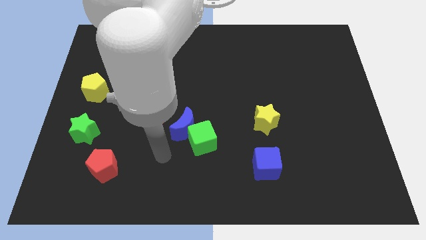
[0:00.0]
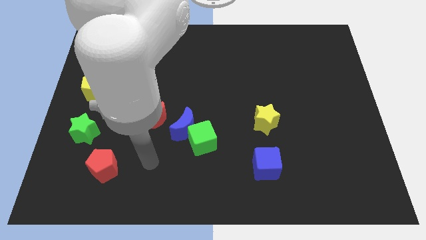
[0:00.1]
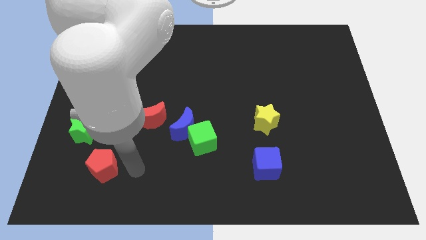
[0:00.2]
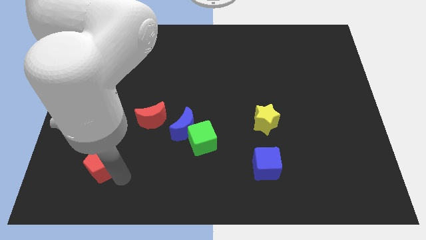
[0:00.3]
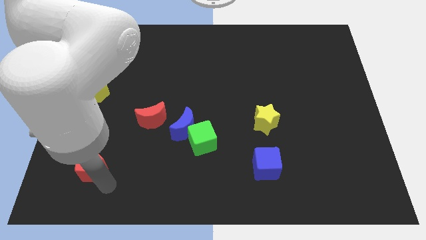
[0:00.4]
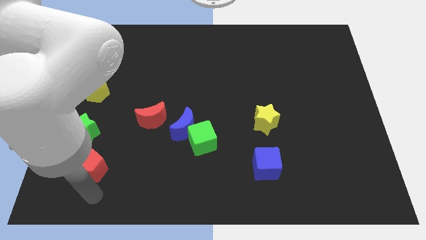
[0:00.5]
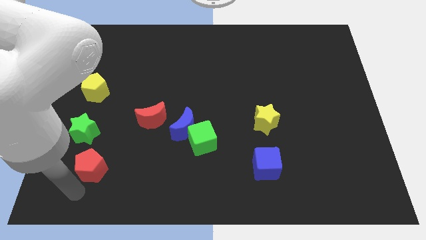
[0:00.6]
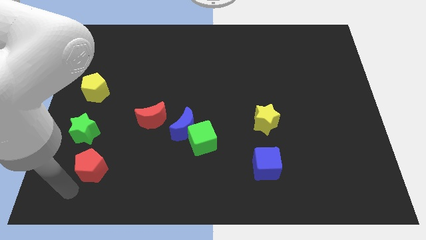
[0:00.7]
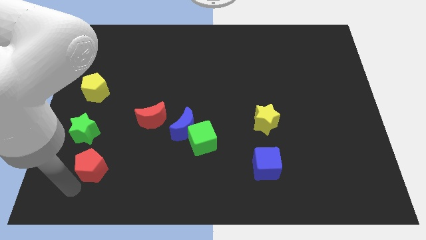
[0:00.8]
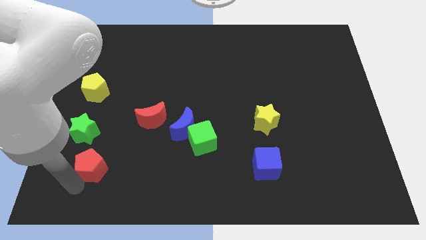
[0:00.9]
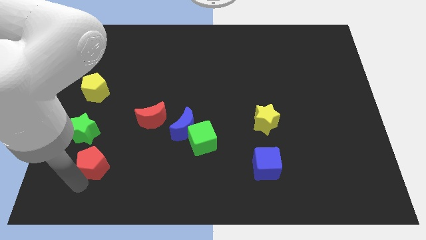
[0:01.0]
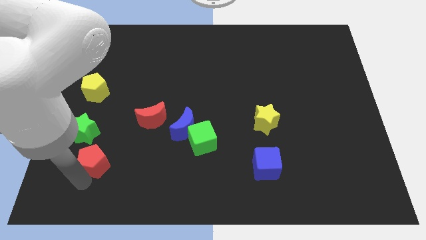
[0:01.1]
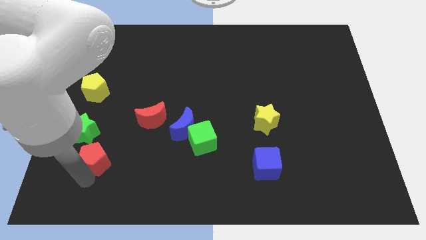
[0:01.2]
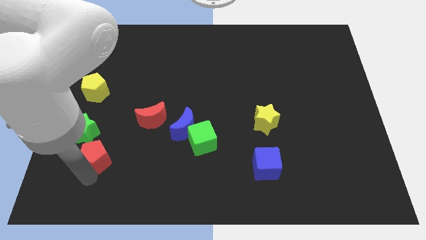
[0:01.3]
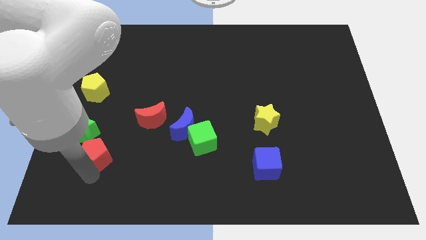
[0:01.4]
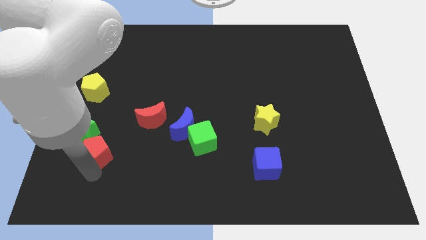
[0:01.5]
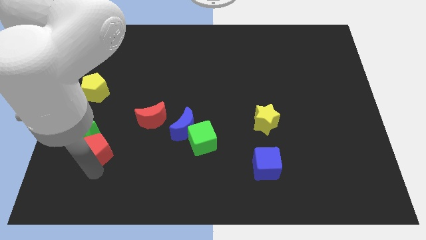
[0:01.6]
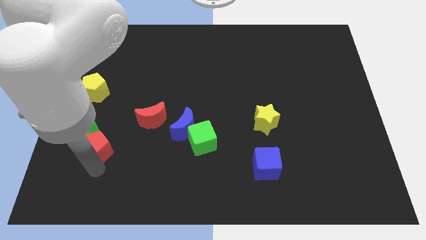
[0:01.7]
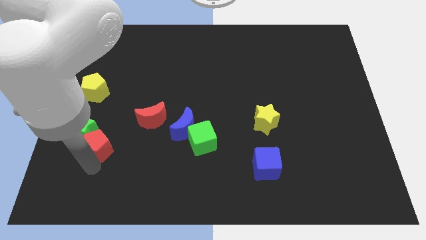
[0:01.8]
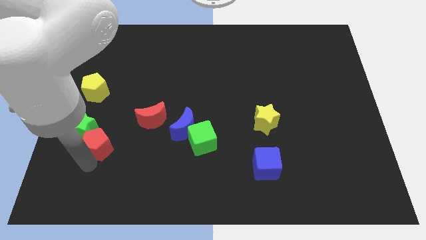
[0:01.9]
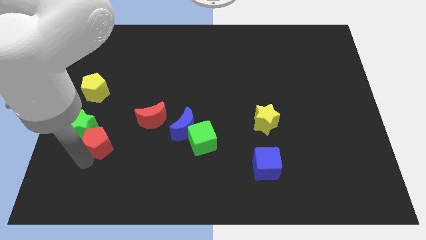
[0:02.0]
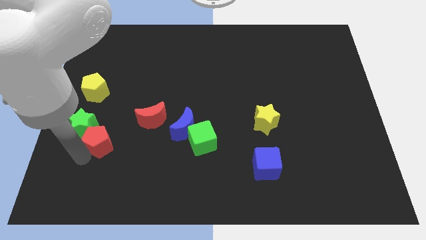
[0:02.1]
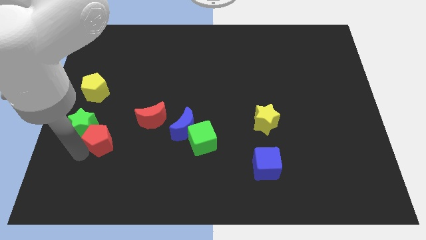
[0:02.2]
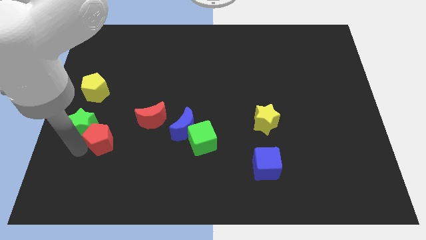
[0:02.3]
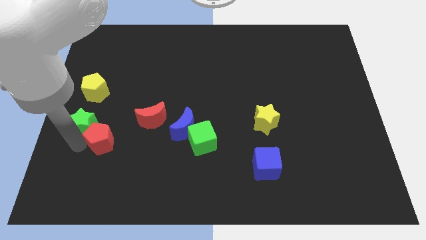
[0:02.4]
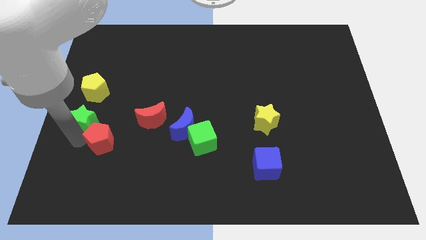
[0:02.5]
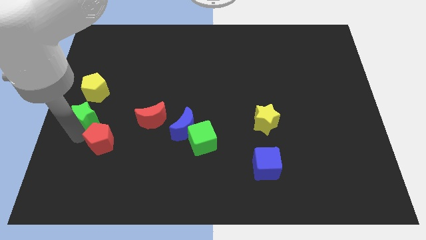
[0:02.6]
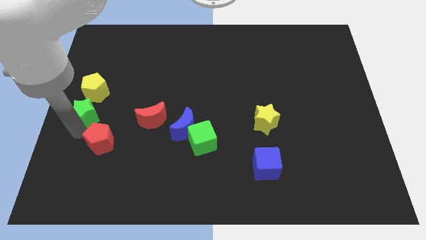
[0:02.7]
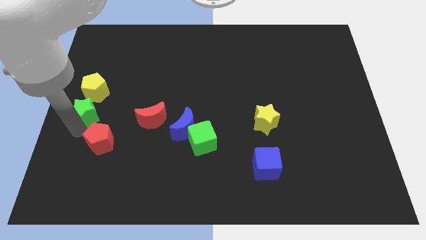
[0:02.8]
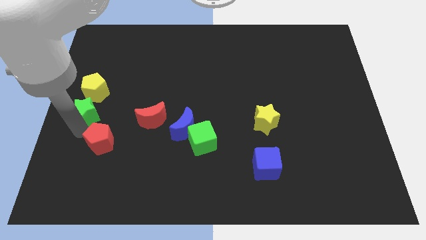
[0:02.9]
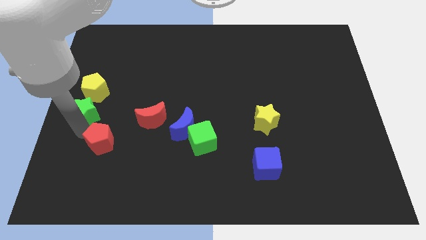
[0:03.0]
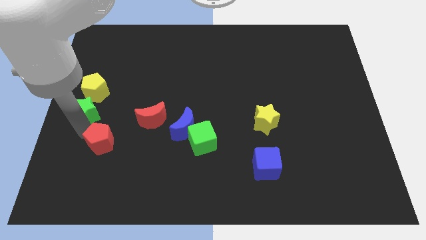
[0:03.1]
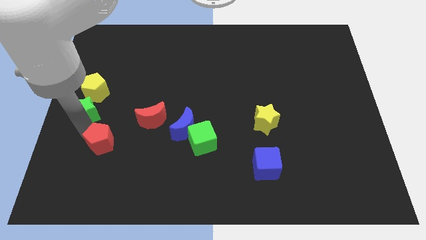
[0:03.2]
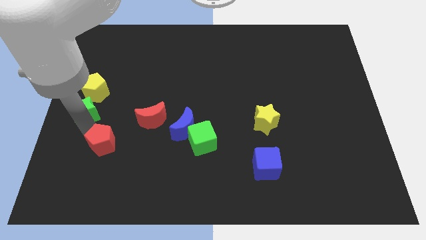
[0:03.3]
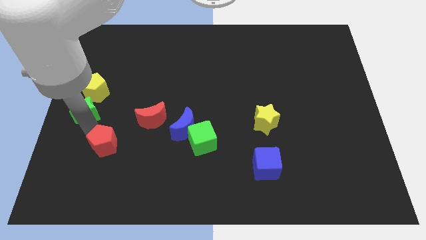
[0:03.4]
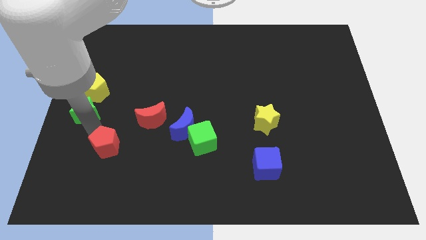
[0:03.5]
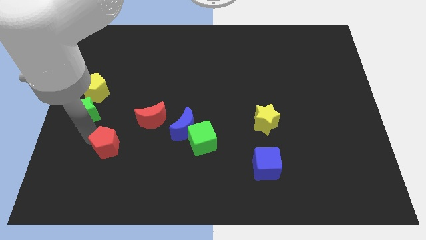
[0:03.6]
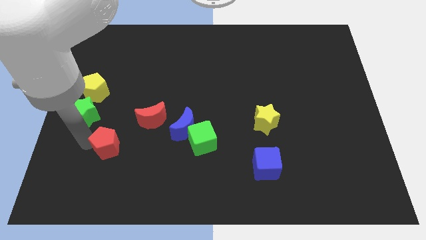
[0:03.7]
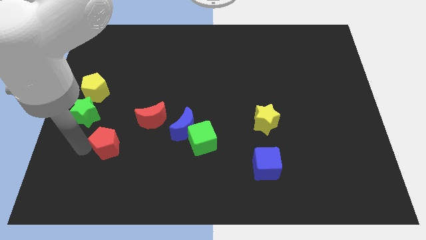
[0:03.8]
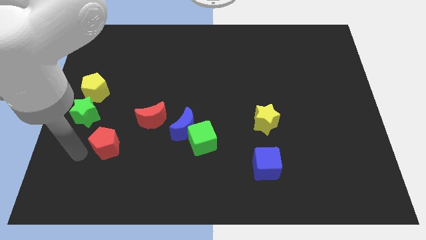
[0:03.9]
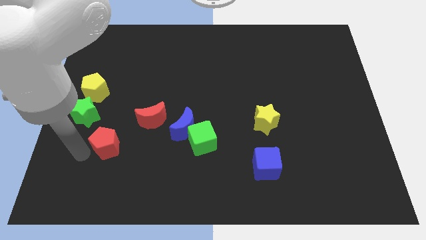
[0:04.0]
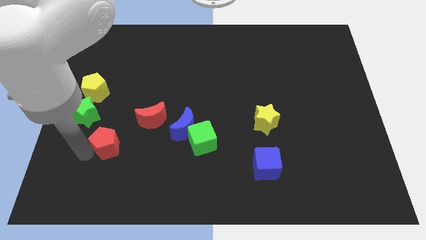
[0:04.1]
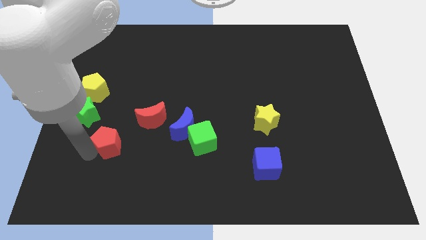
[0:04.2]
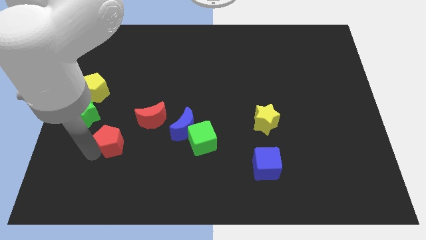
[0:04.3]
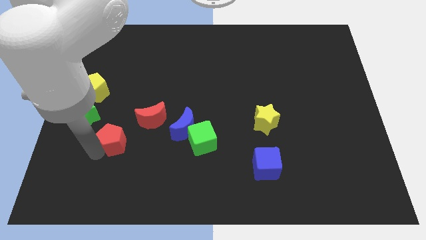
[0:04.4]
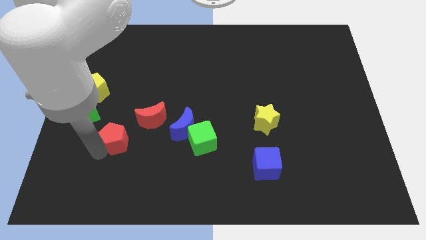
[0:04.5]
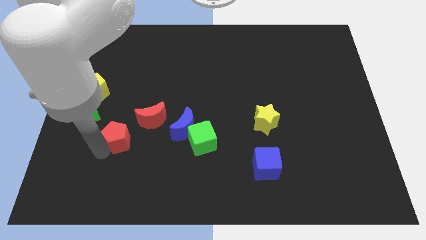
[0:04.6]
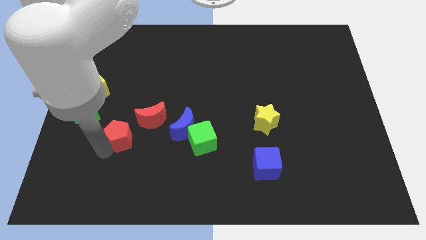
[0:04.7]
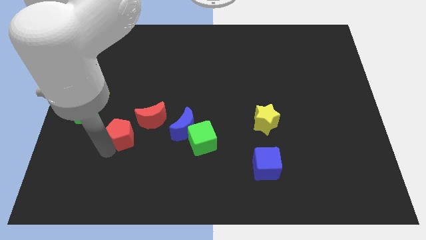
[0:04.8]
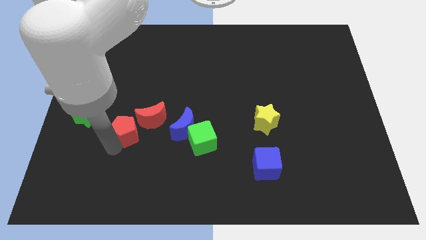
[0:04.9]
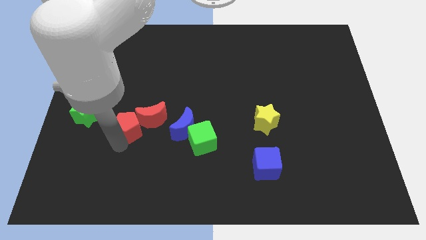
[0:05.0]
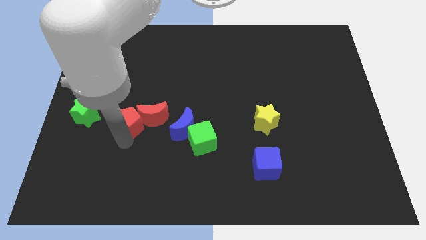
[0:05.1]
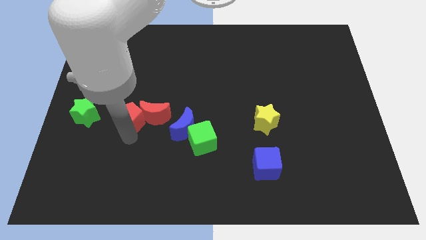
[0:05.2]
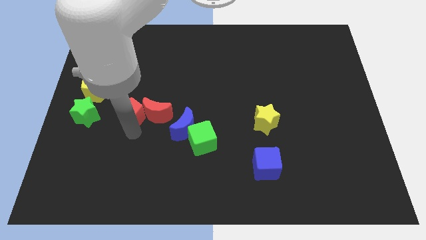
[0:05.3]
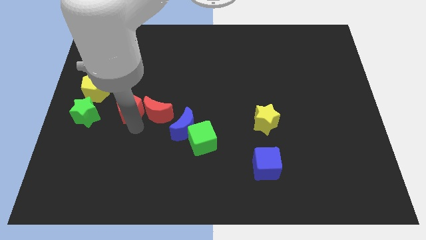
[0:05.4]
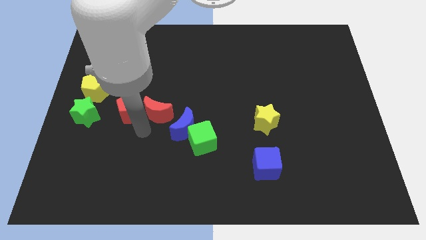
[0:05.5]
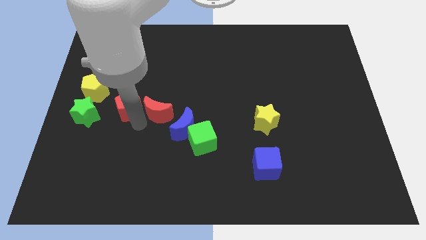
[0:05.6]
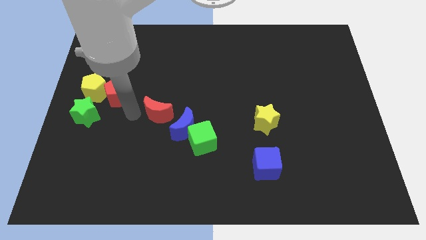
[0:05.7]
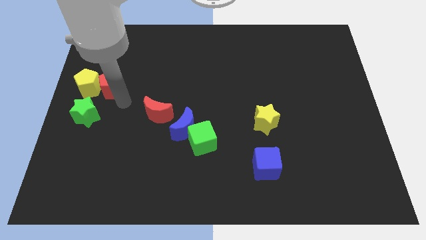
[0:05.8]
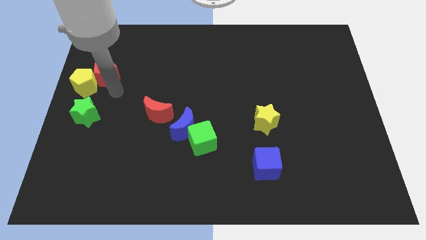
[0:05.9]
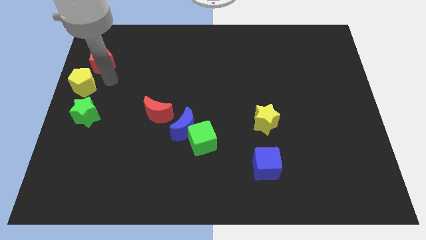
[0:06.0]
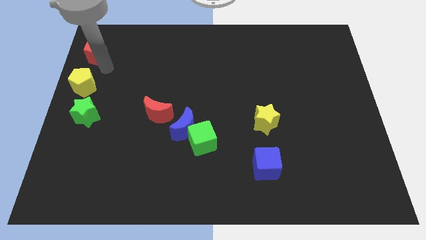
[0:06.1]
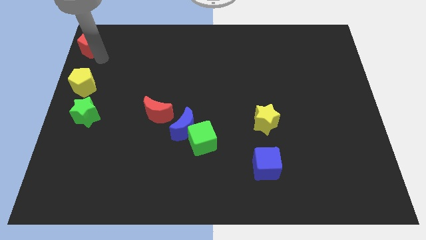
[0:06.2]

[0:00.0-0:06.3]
push the red pentagon to the top left corner
